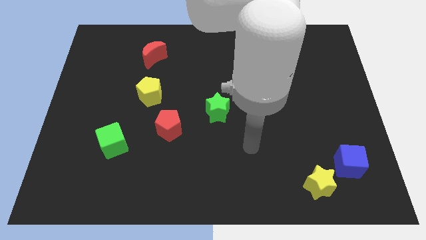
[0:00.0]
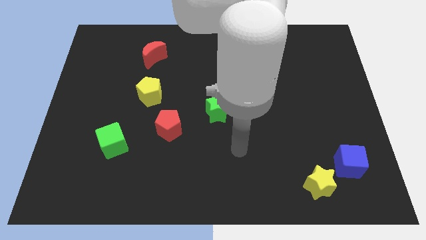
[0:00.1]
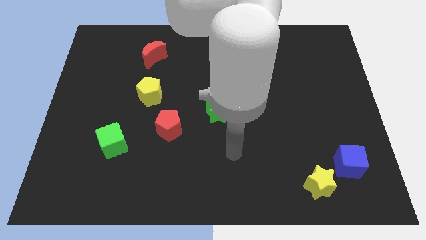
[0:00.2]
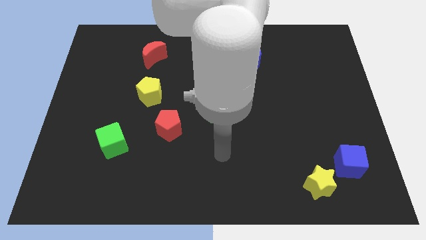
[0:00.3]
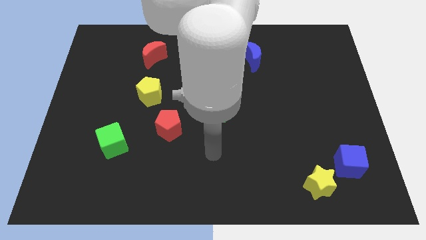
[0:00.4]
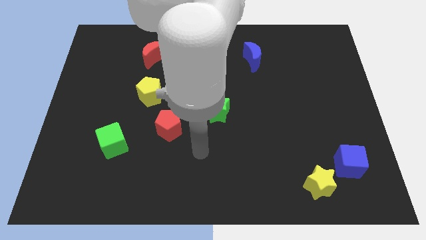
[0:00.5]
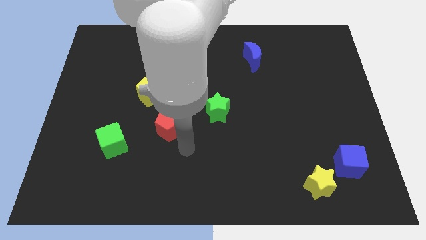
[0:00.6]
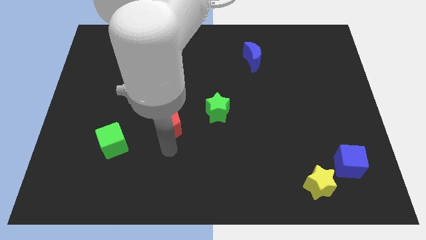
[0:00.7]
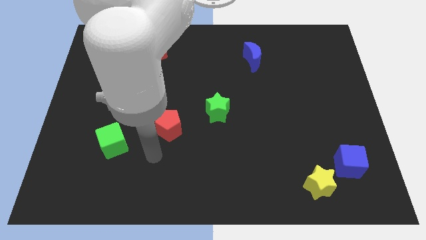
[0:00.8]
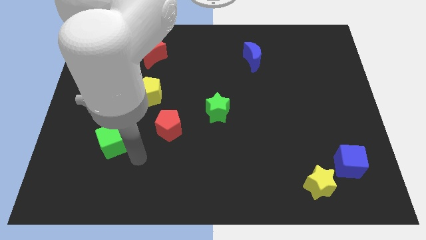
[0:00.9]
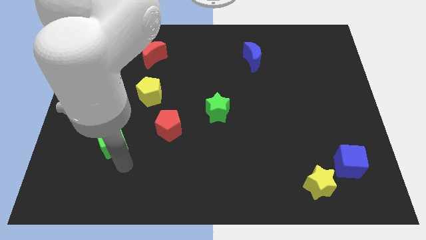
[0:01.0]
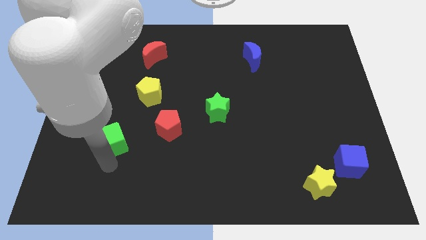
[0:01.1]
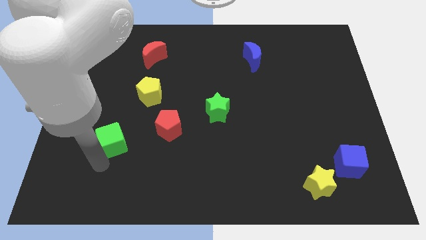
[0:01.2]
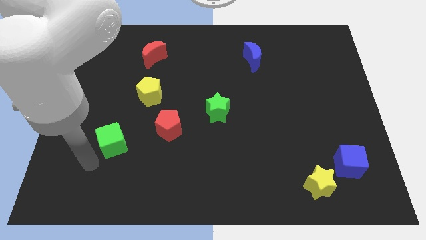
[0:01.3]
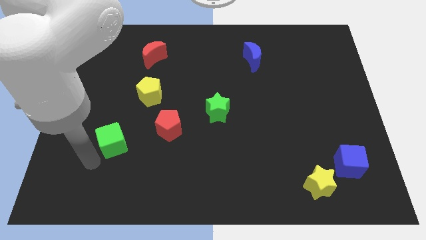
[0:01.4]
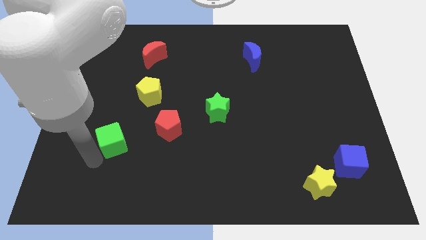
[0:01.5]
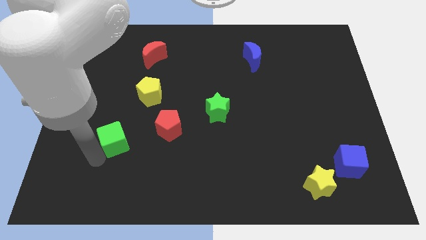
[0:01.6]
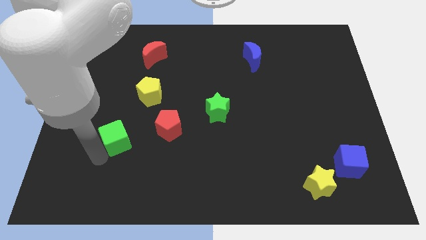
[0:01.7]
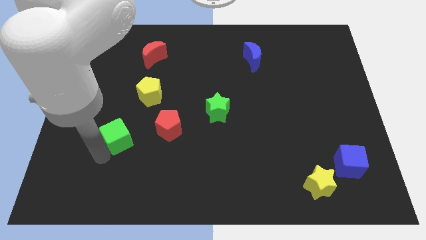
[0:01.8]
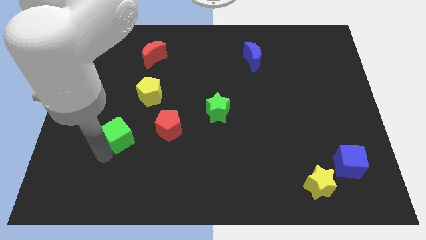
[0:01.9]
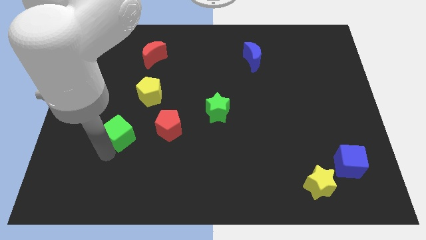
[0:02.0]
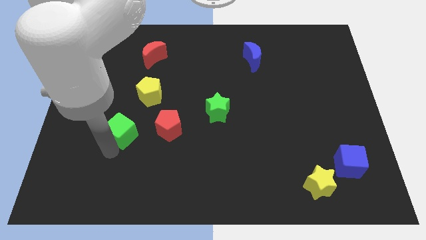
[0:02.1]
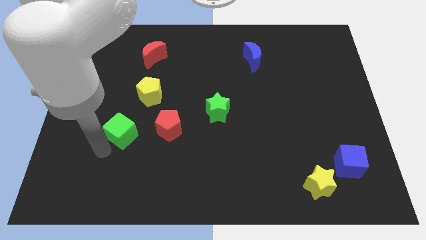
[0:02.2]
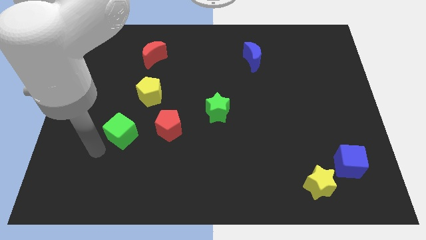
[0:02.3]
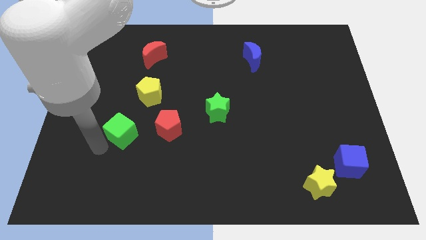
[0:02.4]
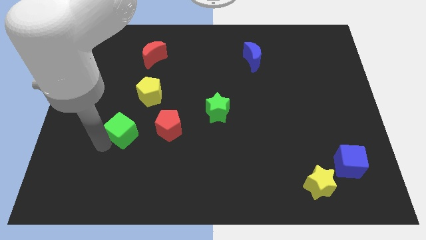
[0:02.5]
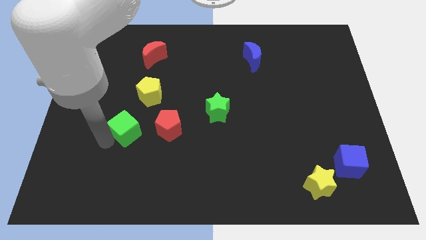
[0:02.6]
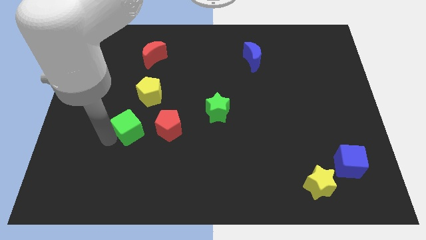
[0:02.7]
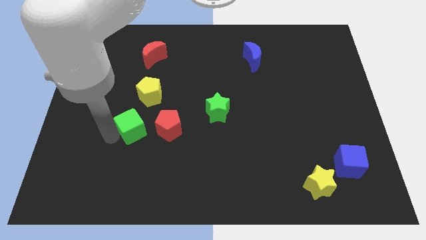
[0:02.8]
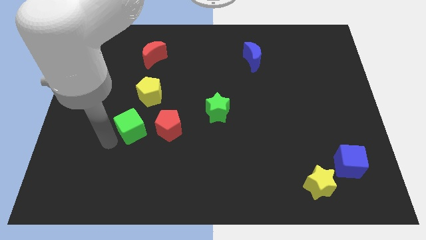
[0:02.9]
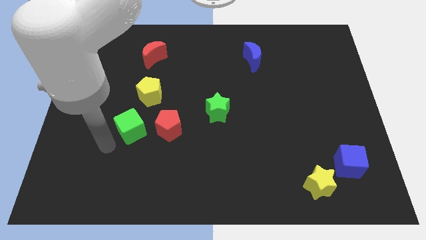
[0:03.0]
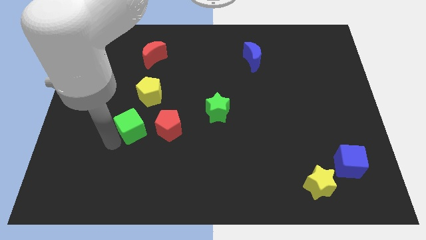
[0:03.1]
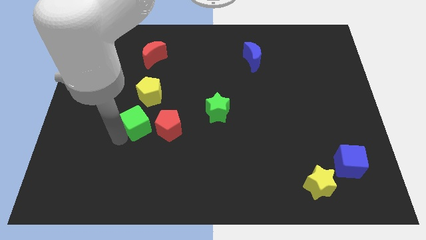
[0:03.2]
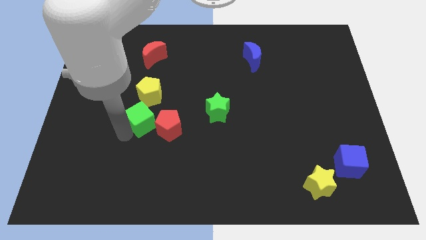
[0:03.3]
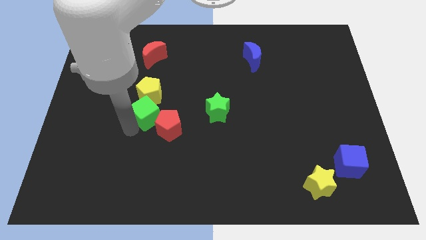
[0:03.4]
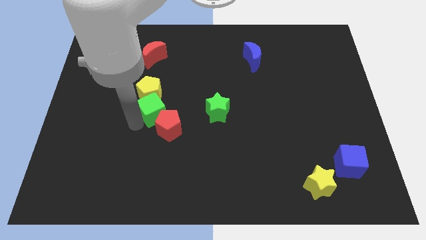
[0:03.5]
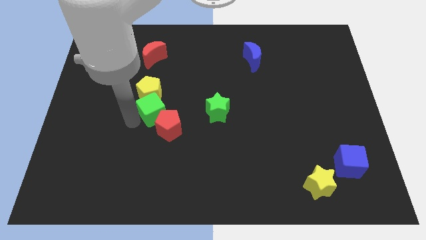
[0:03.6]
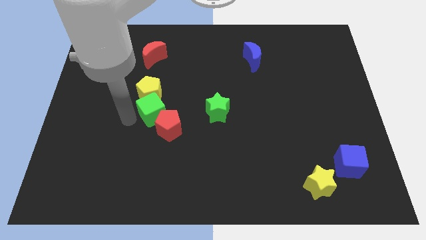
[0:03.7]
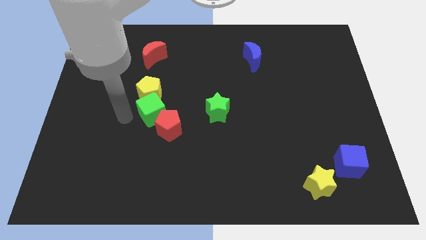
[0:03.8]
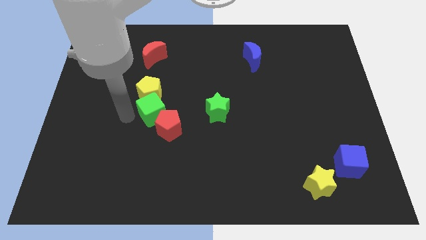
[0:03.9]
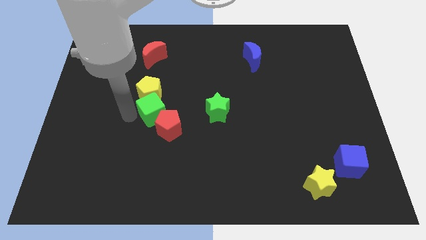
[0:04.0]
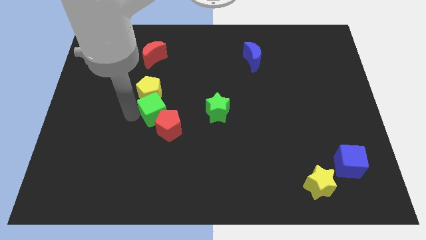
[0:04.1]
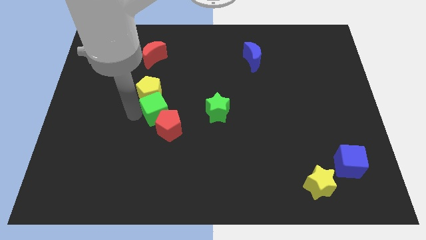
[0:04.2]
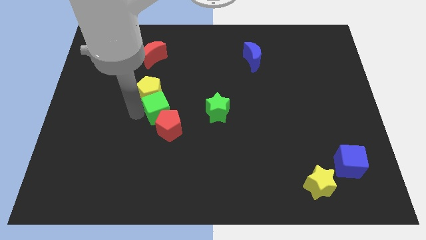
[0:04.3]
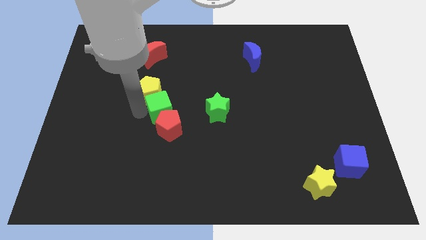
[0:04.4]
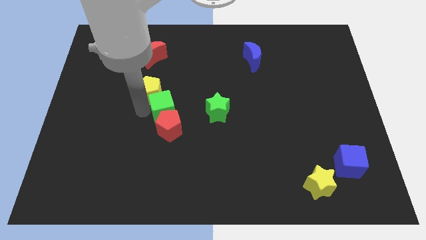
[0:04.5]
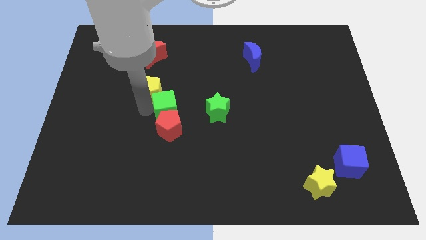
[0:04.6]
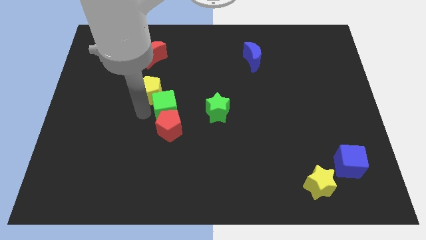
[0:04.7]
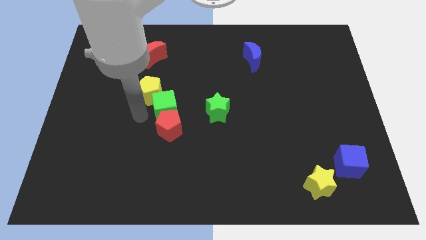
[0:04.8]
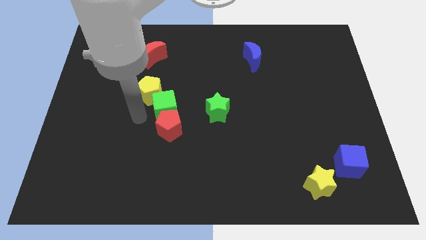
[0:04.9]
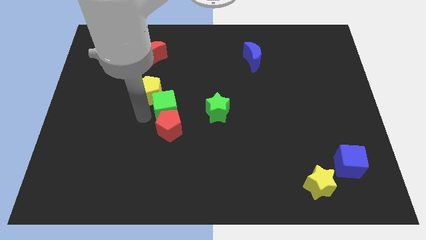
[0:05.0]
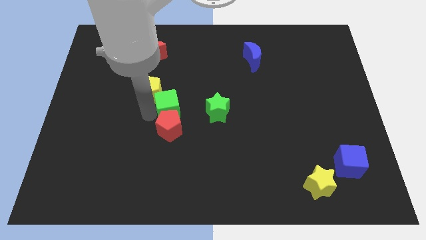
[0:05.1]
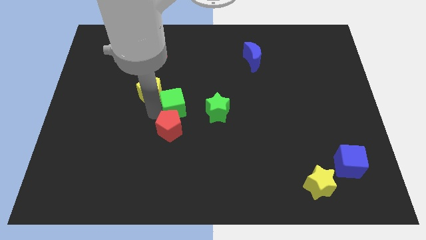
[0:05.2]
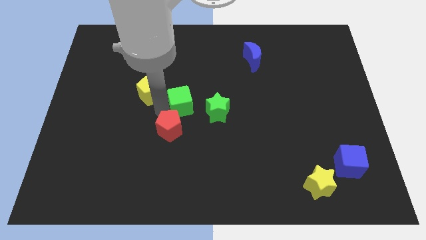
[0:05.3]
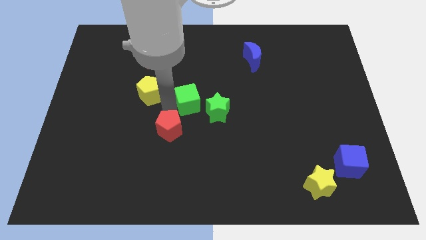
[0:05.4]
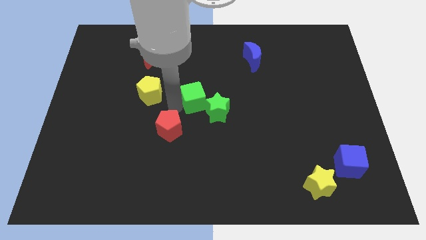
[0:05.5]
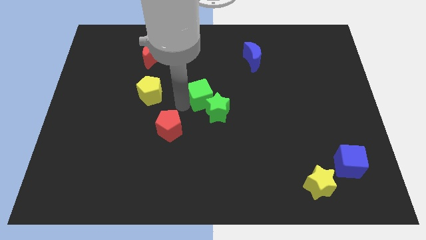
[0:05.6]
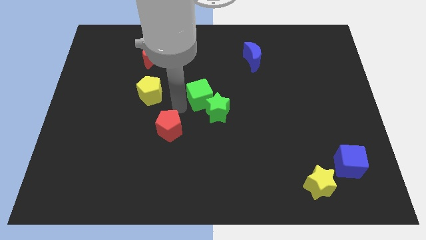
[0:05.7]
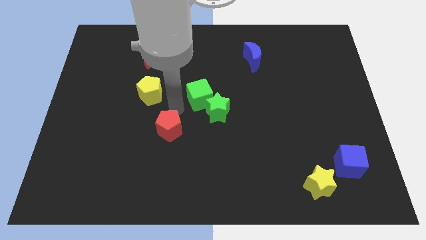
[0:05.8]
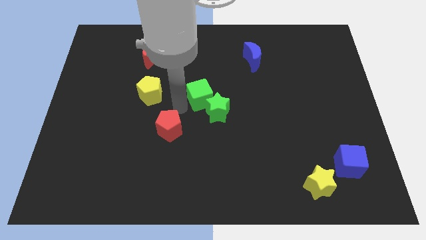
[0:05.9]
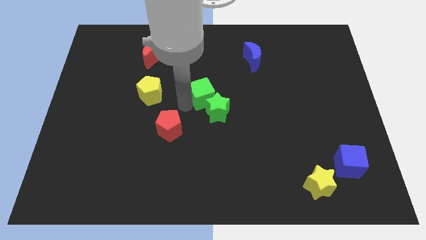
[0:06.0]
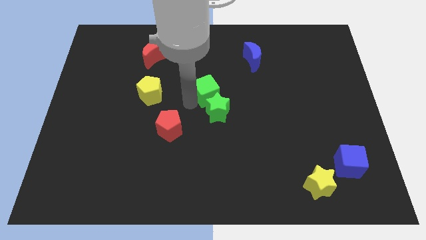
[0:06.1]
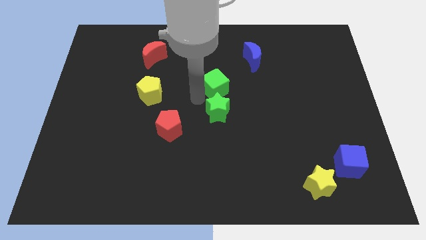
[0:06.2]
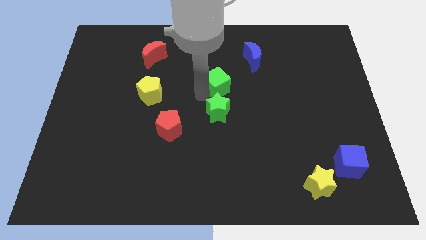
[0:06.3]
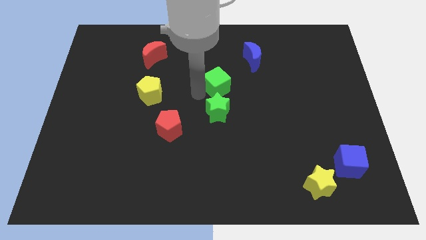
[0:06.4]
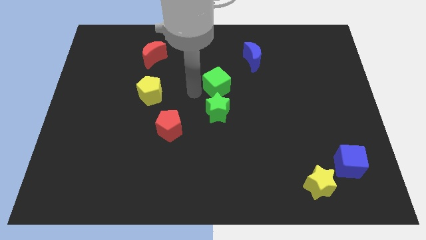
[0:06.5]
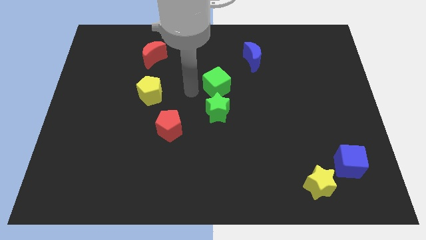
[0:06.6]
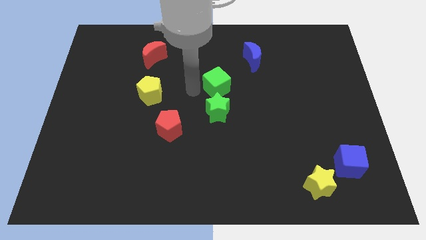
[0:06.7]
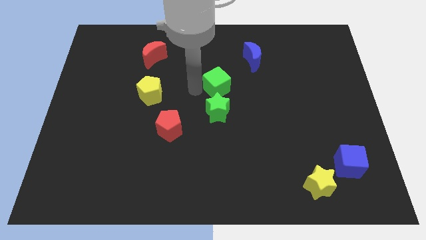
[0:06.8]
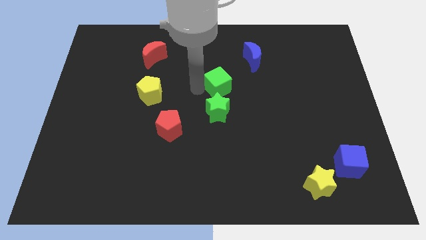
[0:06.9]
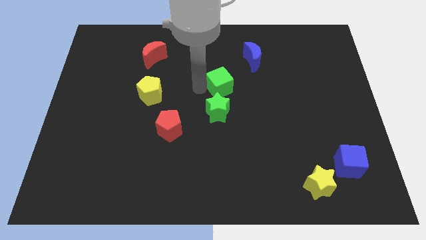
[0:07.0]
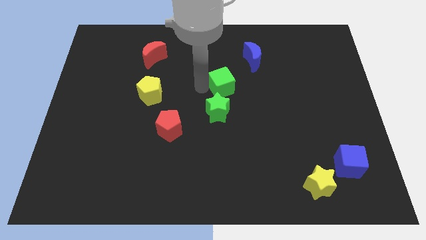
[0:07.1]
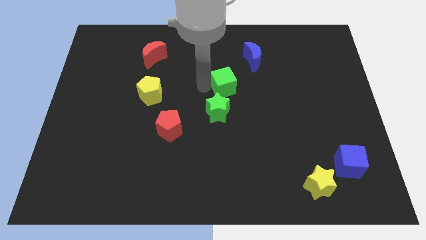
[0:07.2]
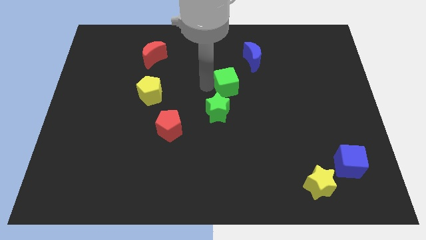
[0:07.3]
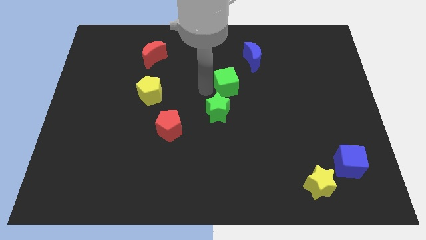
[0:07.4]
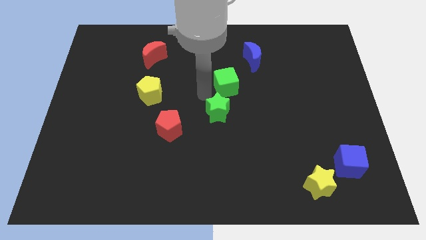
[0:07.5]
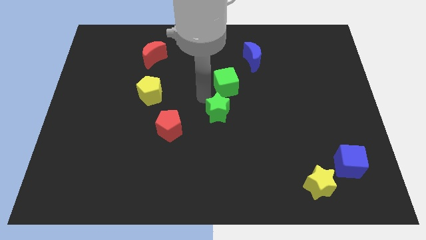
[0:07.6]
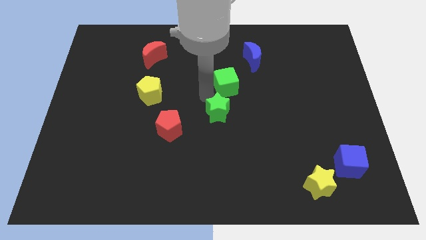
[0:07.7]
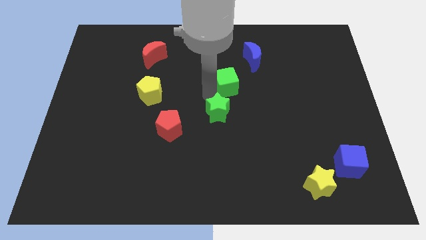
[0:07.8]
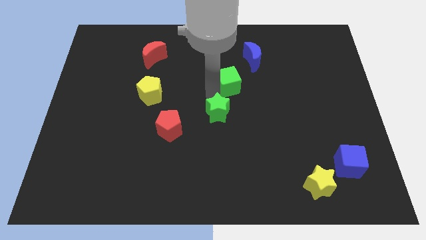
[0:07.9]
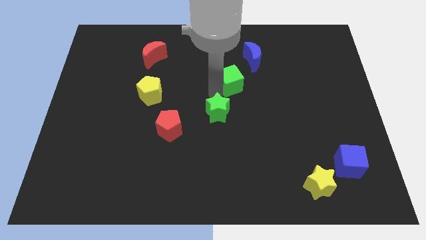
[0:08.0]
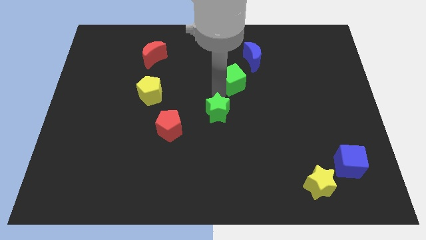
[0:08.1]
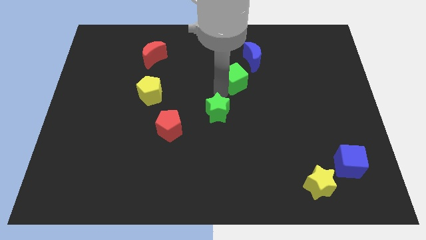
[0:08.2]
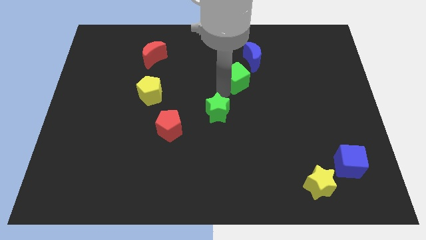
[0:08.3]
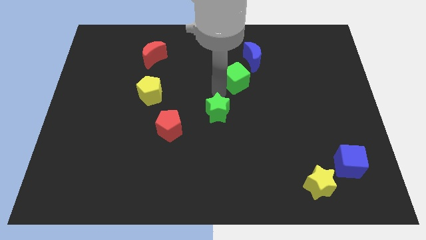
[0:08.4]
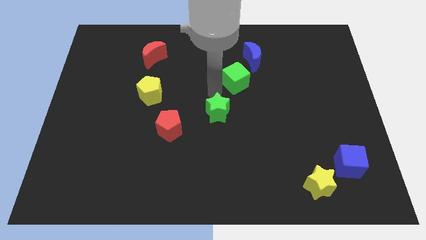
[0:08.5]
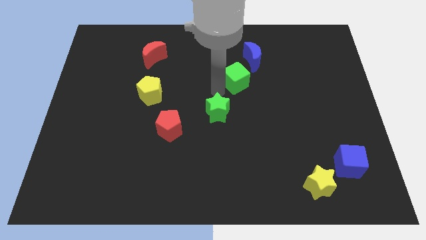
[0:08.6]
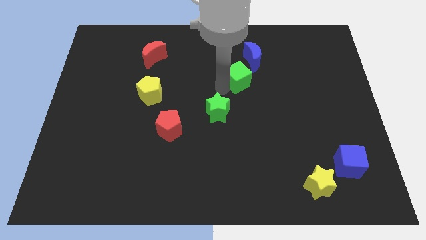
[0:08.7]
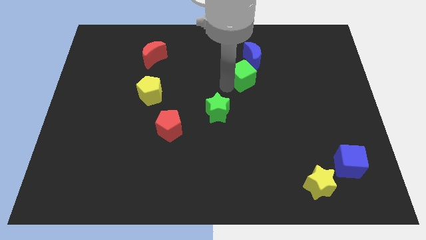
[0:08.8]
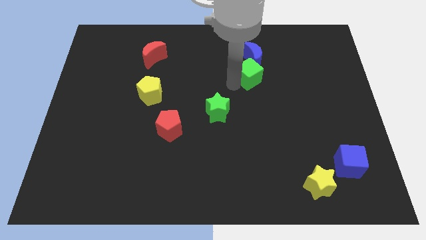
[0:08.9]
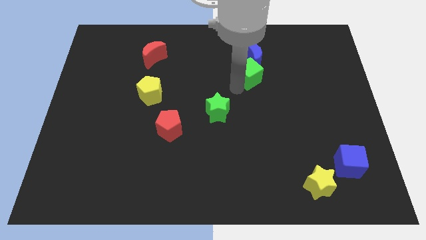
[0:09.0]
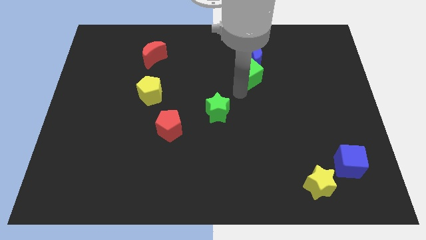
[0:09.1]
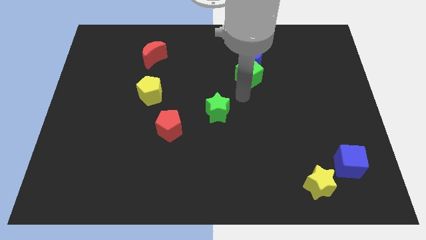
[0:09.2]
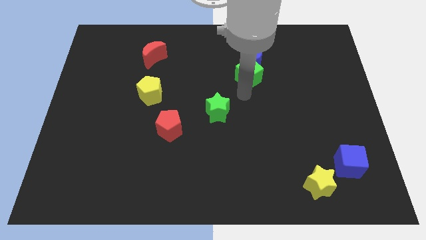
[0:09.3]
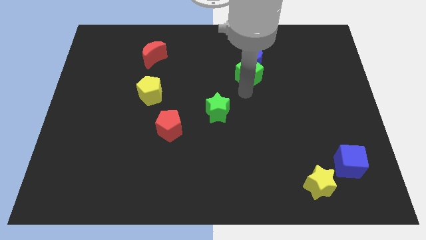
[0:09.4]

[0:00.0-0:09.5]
move the green cube towards the blue moon
